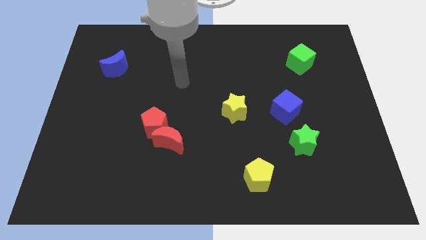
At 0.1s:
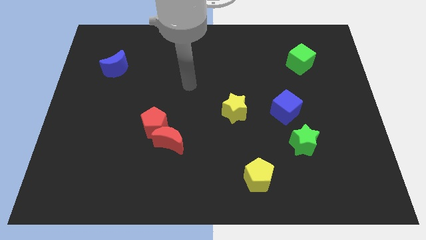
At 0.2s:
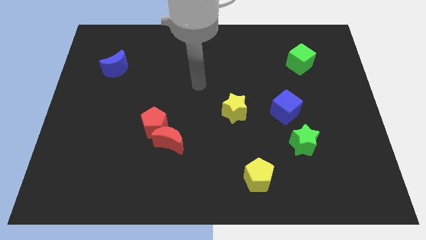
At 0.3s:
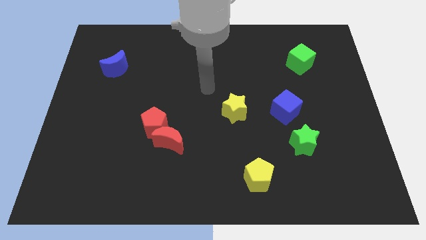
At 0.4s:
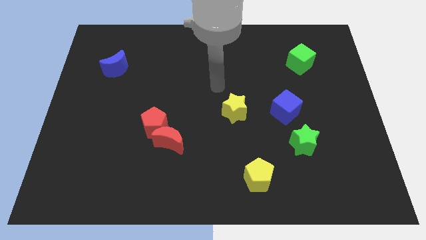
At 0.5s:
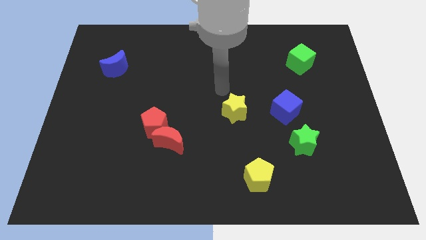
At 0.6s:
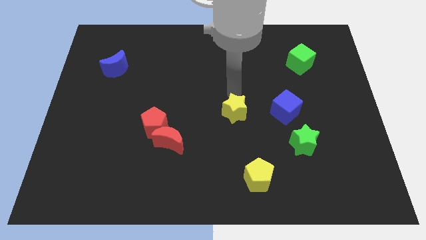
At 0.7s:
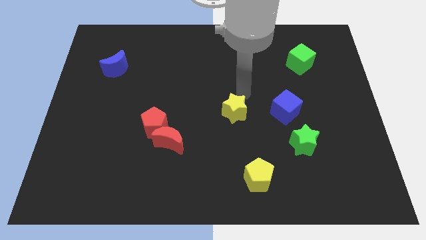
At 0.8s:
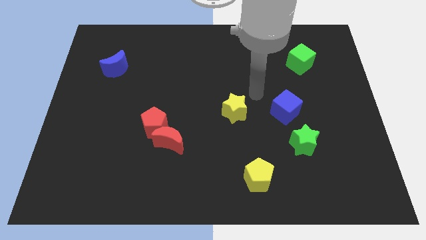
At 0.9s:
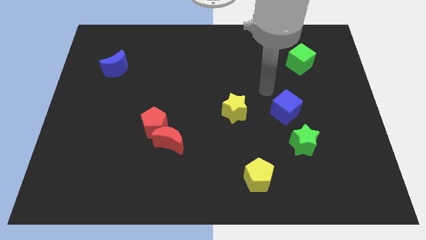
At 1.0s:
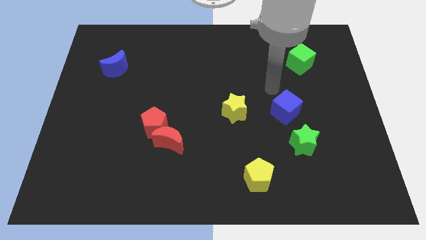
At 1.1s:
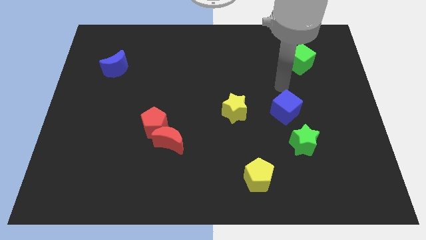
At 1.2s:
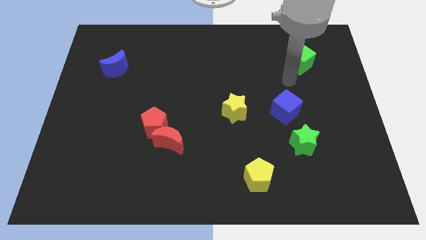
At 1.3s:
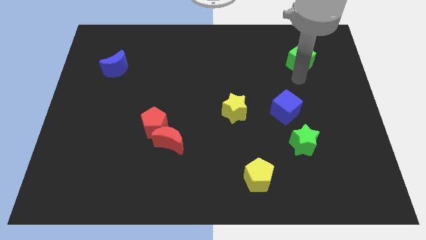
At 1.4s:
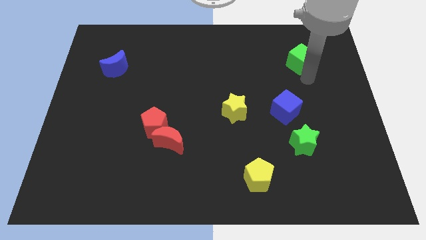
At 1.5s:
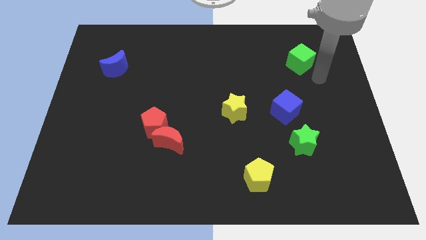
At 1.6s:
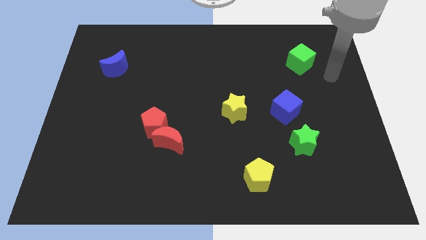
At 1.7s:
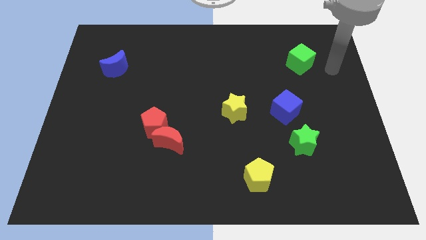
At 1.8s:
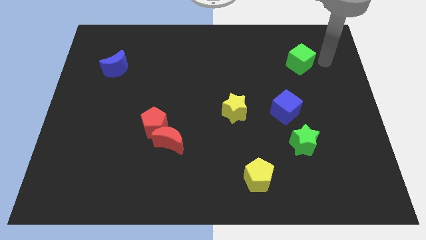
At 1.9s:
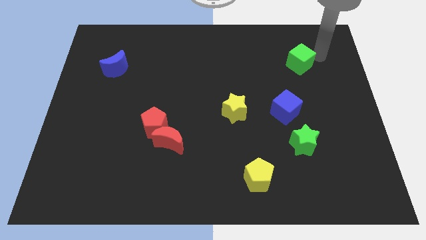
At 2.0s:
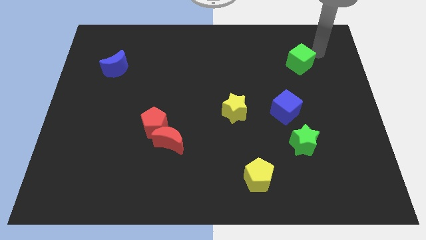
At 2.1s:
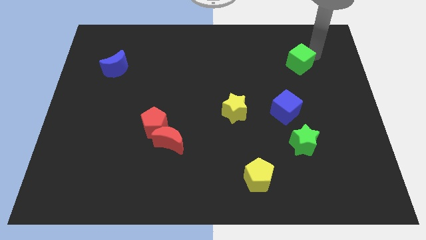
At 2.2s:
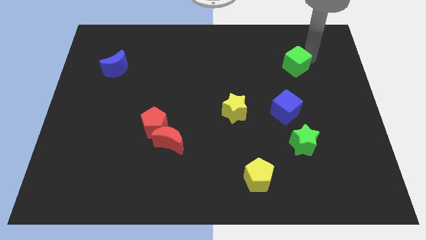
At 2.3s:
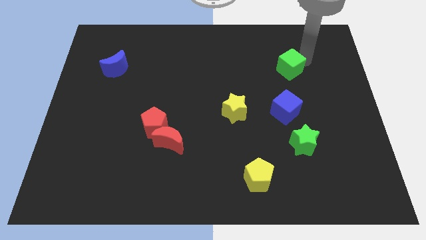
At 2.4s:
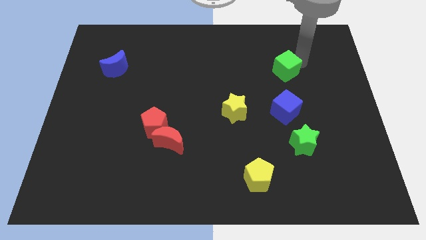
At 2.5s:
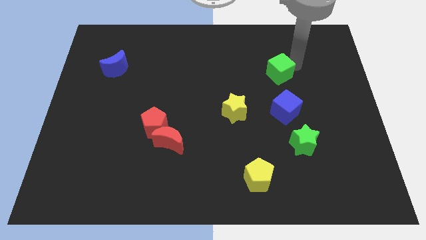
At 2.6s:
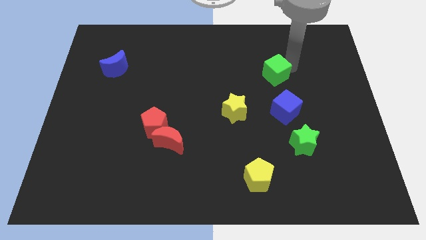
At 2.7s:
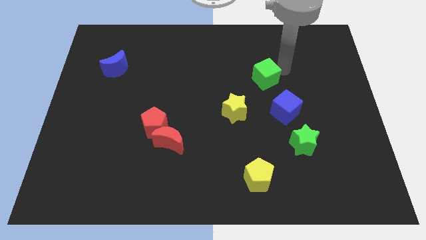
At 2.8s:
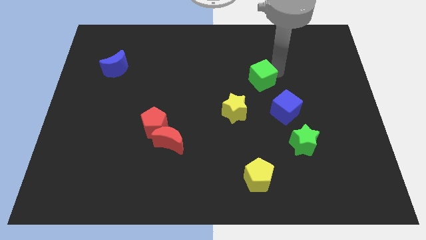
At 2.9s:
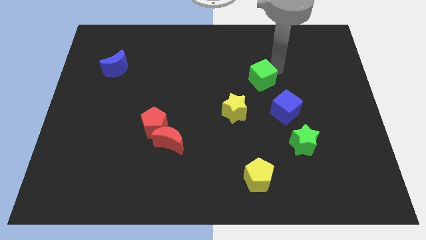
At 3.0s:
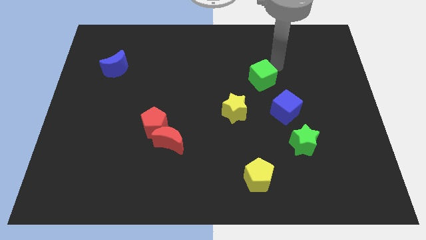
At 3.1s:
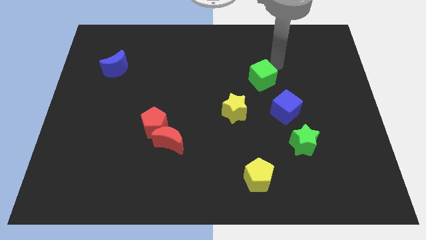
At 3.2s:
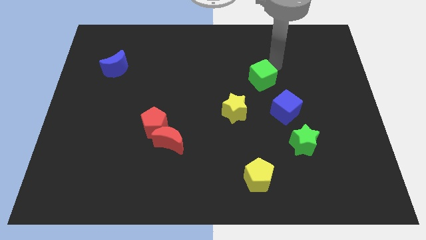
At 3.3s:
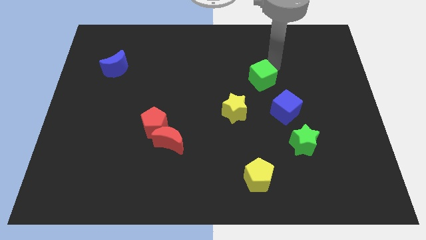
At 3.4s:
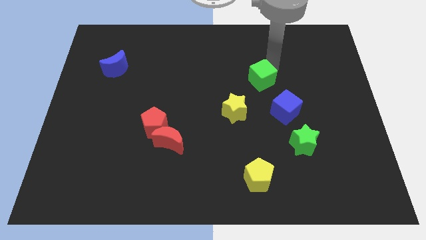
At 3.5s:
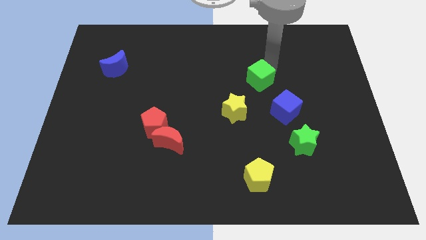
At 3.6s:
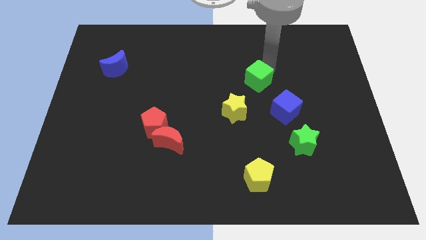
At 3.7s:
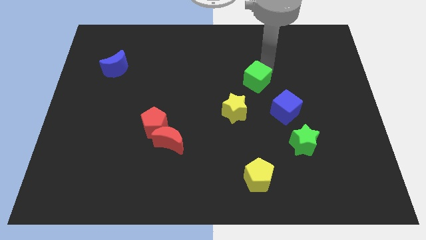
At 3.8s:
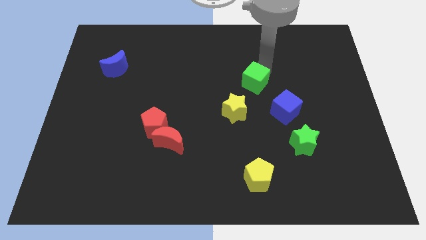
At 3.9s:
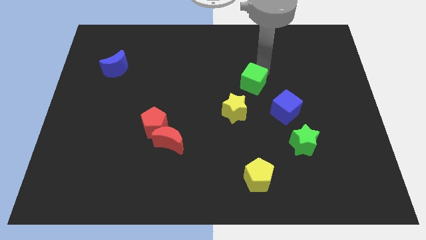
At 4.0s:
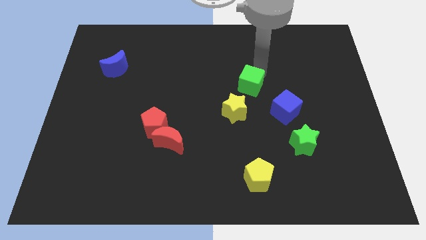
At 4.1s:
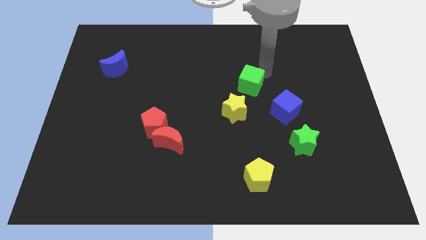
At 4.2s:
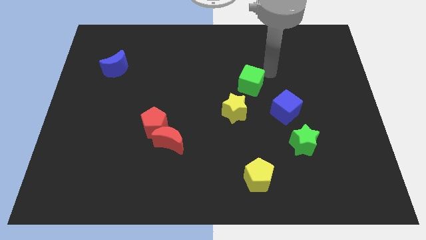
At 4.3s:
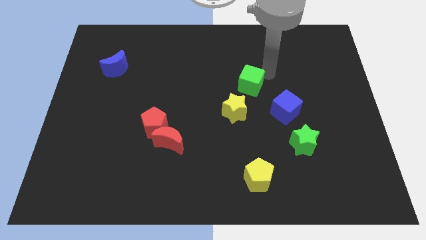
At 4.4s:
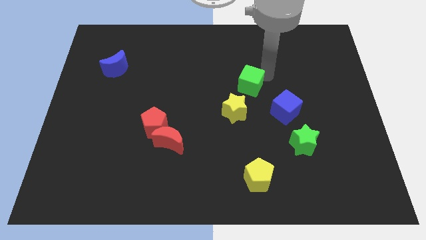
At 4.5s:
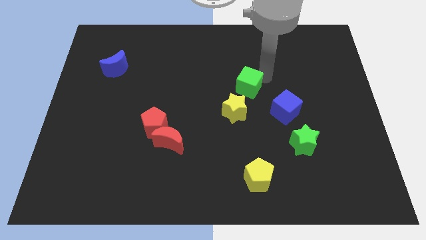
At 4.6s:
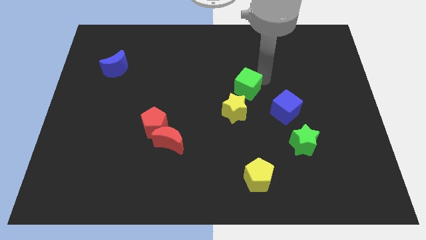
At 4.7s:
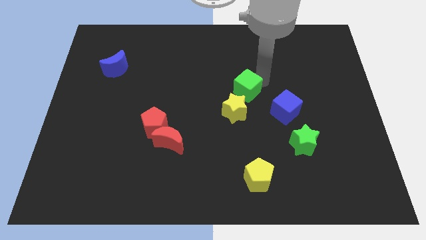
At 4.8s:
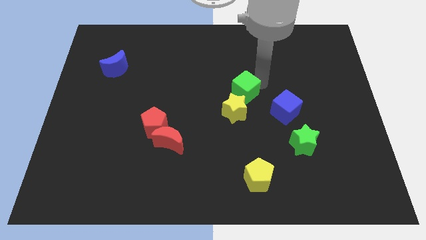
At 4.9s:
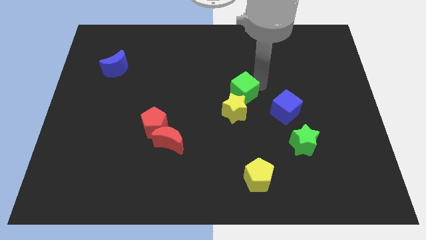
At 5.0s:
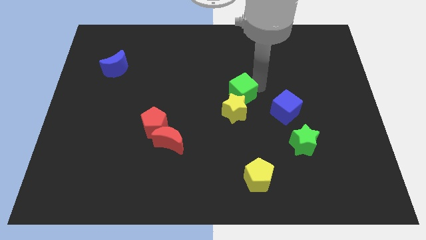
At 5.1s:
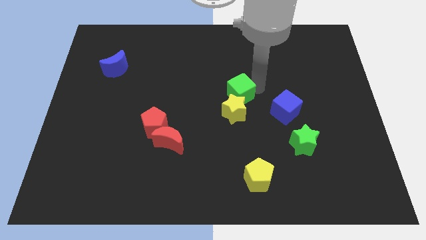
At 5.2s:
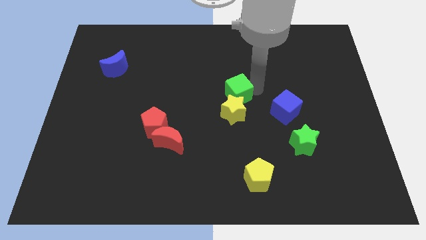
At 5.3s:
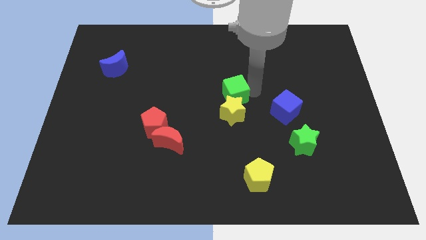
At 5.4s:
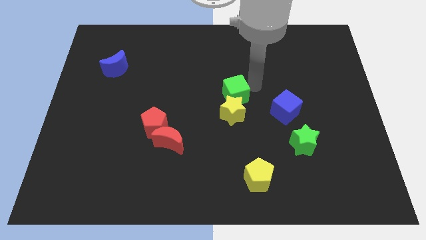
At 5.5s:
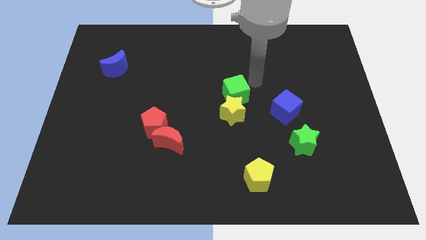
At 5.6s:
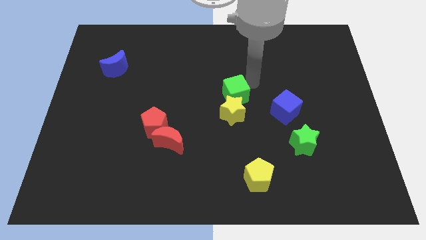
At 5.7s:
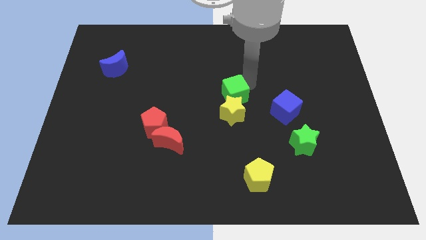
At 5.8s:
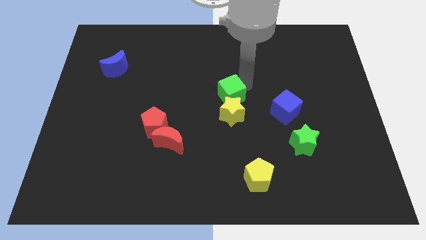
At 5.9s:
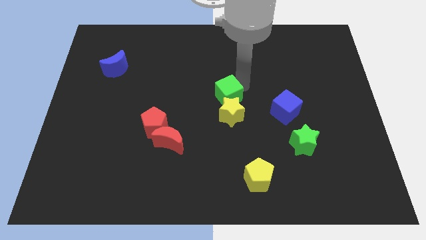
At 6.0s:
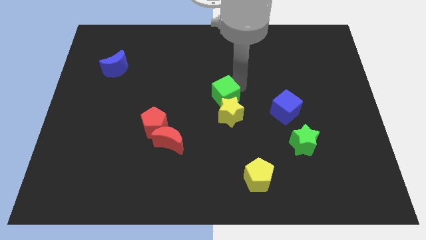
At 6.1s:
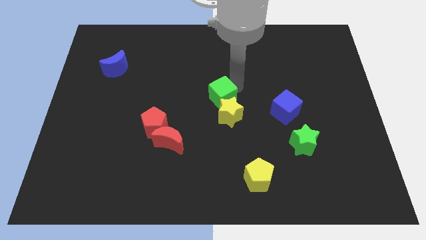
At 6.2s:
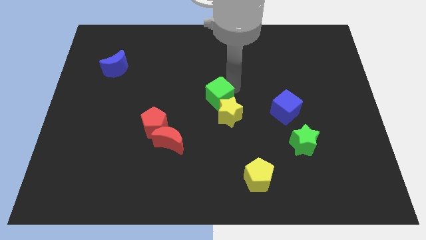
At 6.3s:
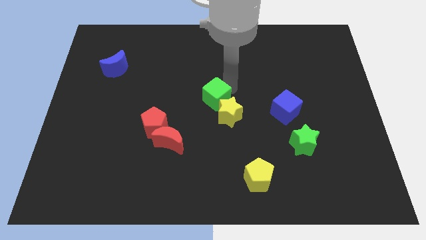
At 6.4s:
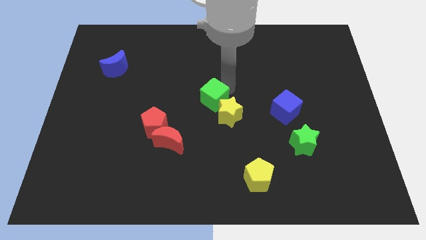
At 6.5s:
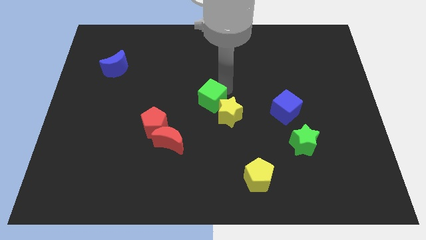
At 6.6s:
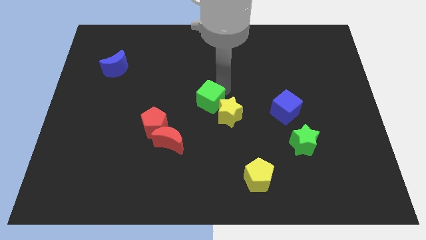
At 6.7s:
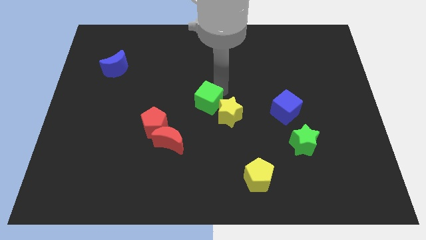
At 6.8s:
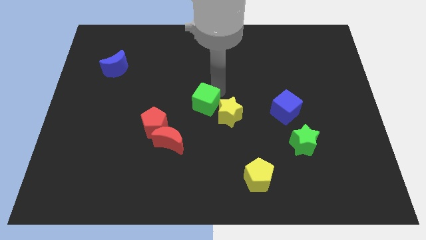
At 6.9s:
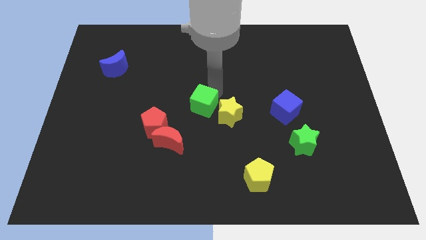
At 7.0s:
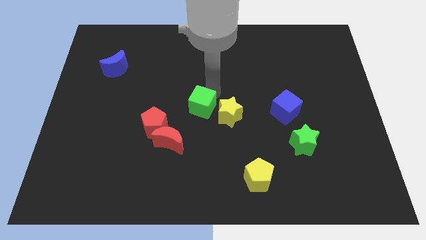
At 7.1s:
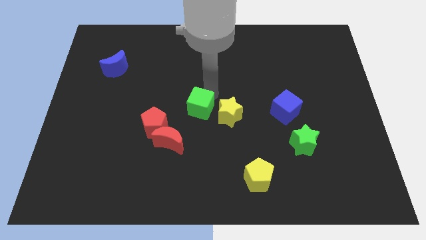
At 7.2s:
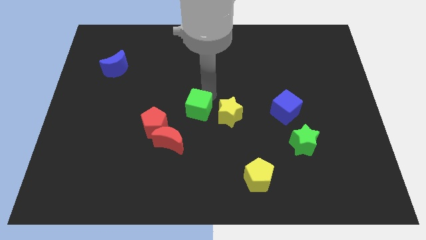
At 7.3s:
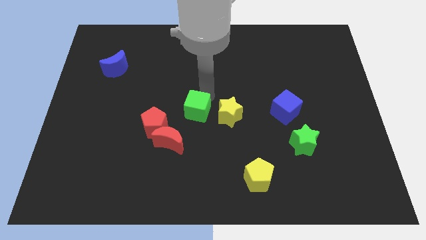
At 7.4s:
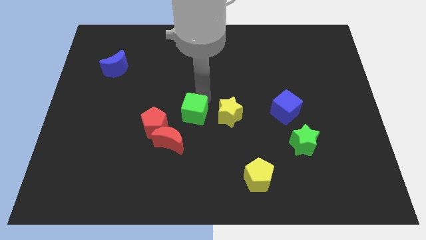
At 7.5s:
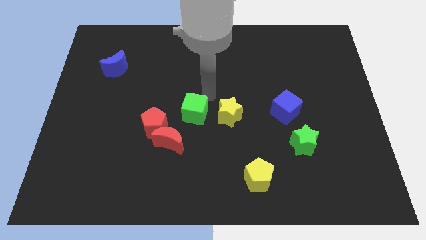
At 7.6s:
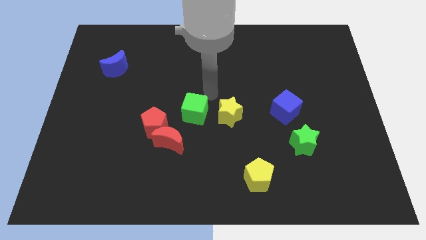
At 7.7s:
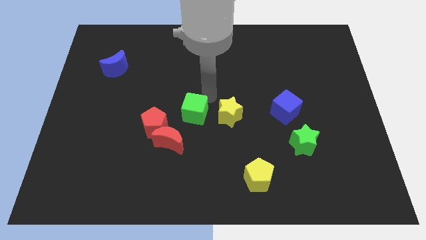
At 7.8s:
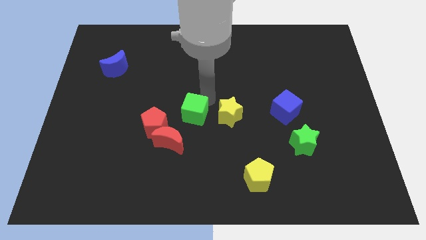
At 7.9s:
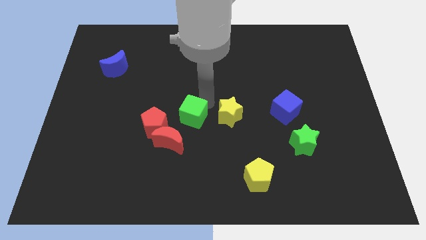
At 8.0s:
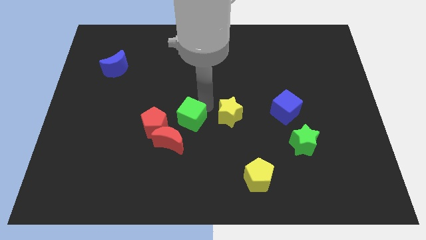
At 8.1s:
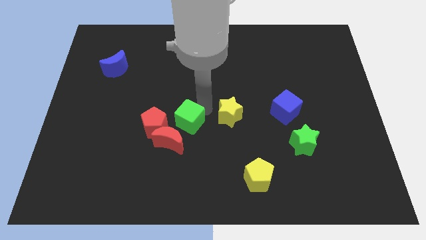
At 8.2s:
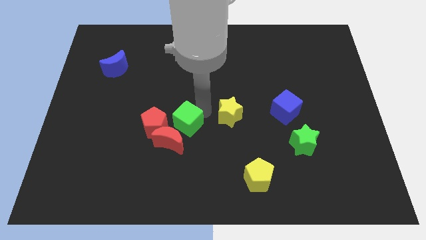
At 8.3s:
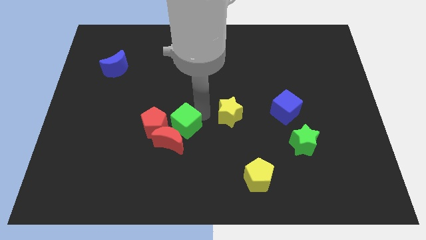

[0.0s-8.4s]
put the green cube to the red moon
